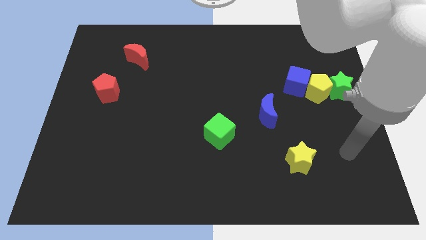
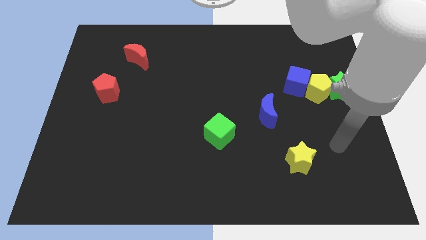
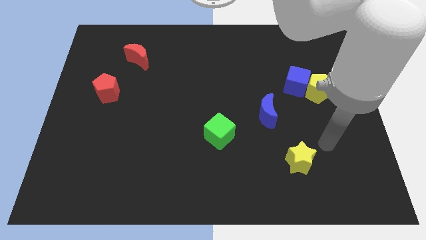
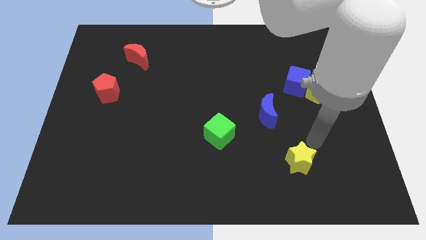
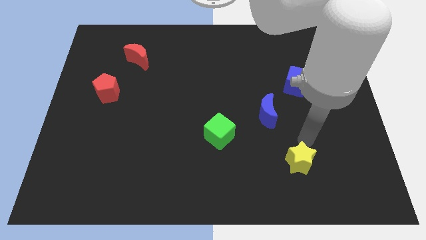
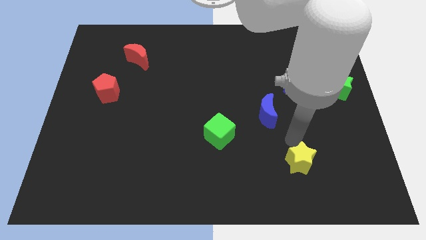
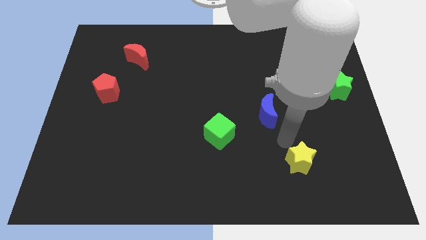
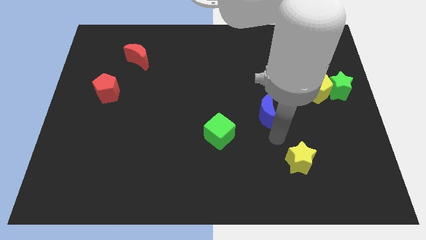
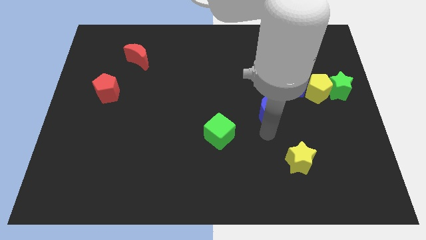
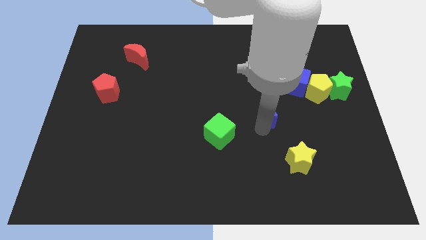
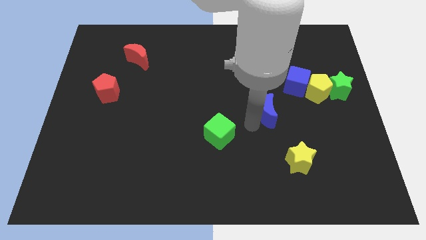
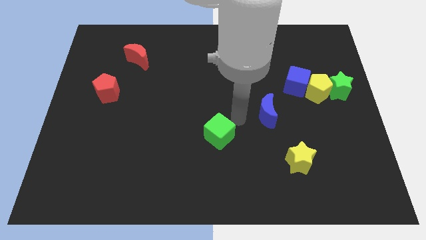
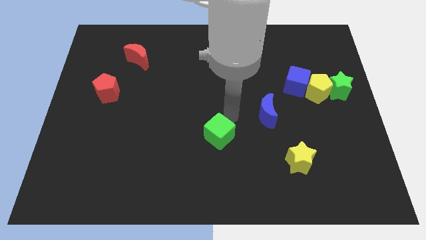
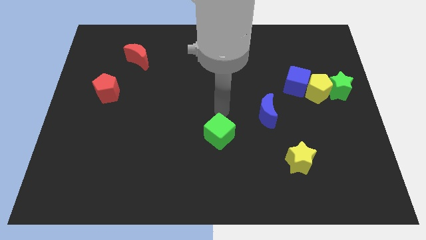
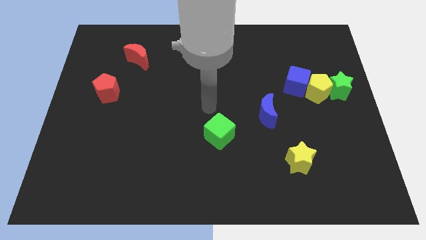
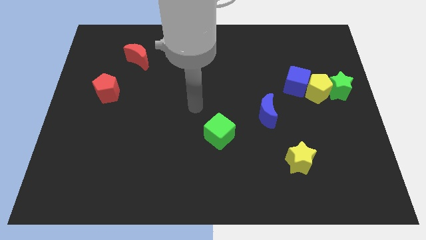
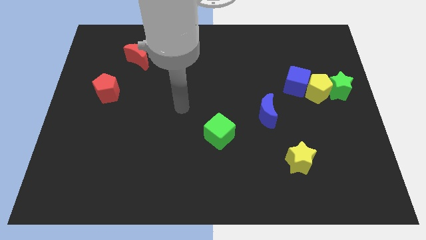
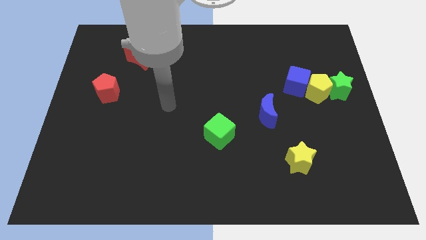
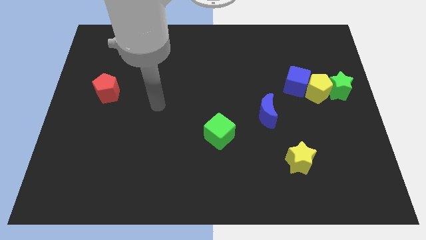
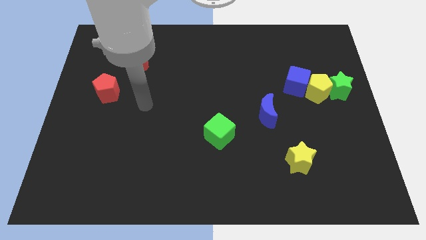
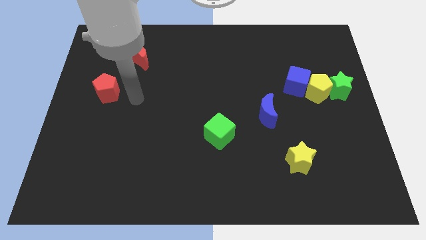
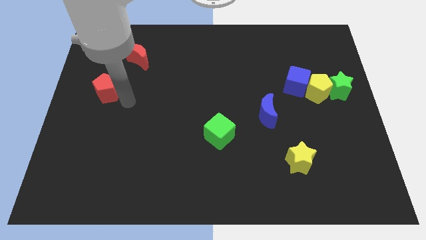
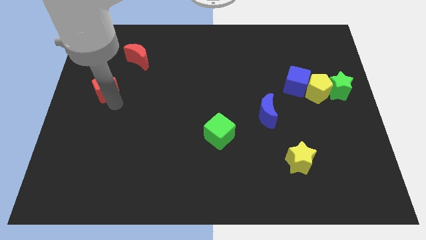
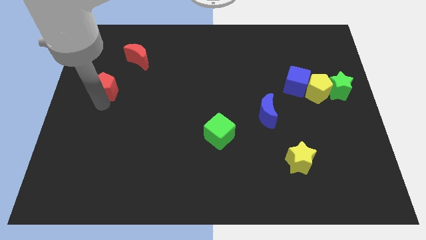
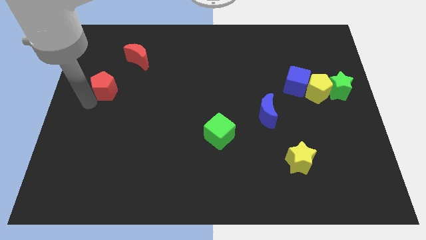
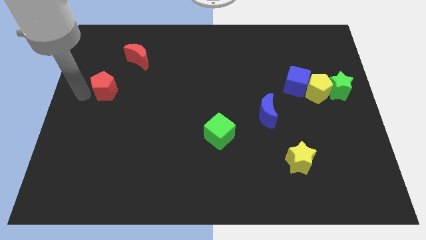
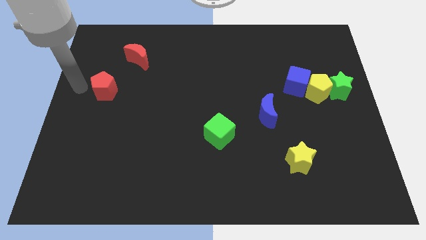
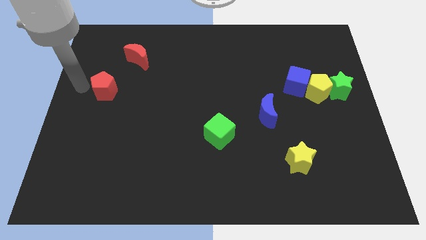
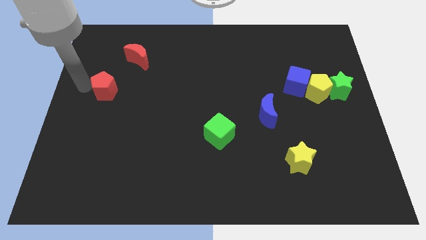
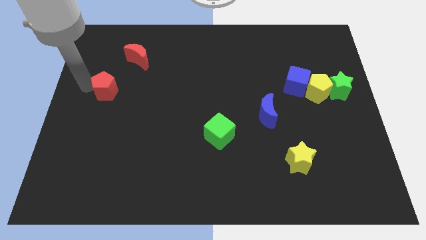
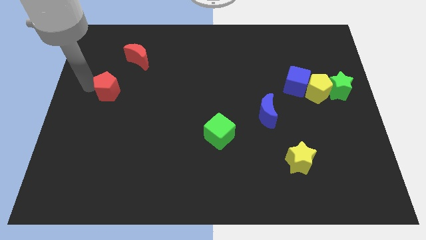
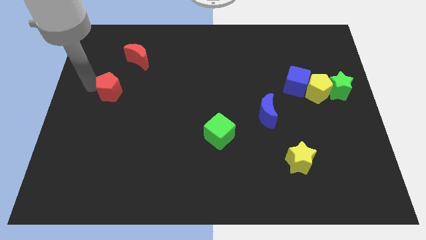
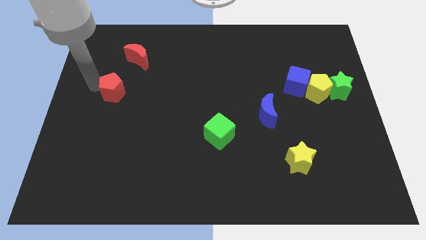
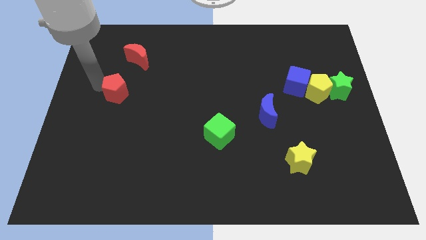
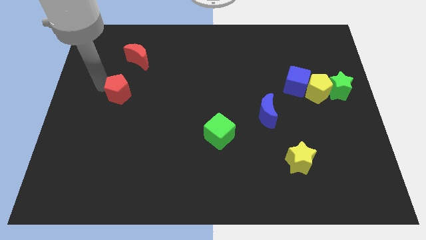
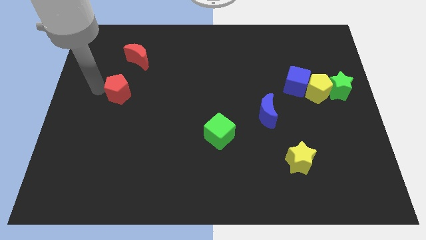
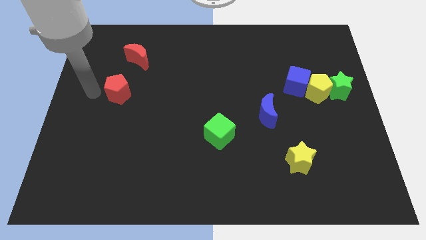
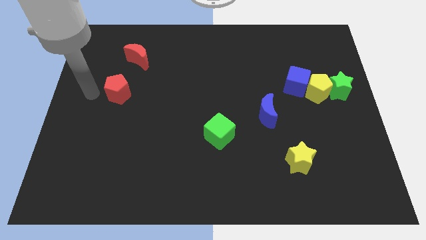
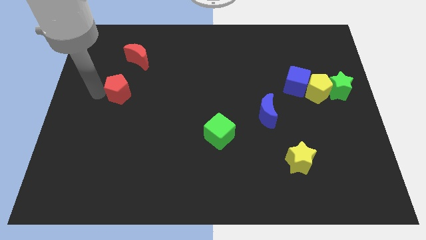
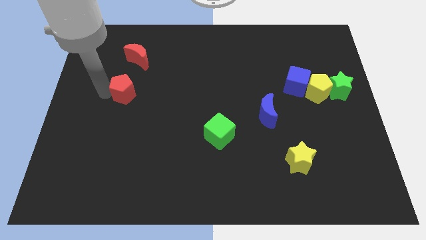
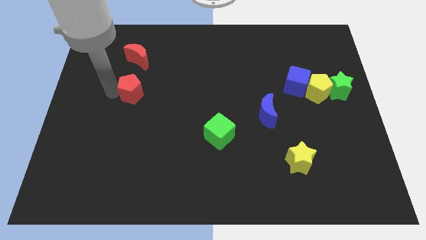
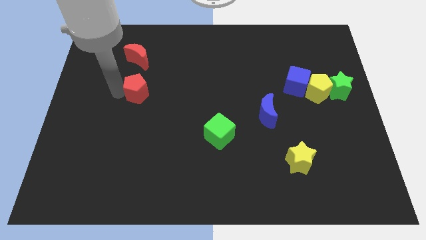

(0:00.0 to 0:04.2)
move the red pentagon to the right somewhat

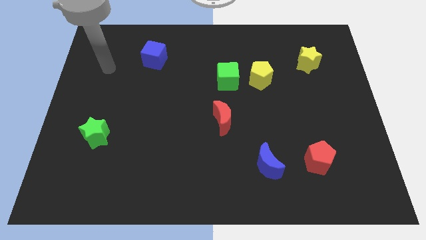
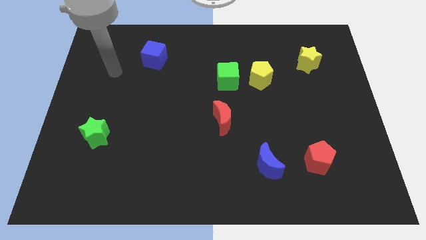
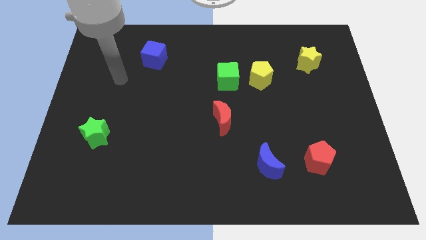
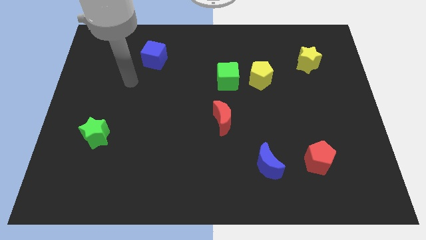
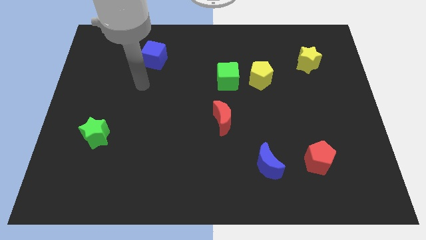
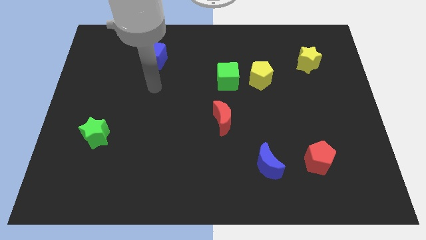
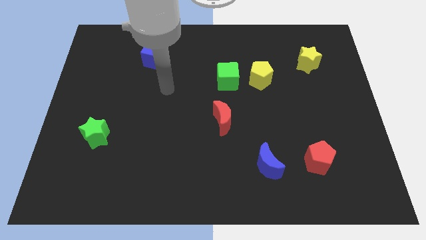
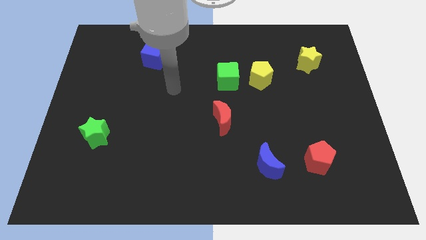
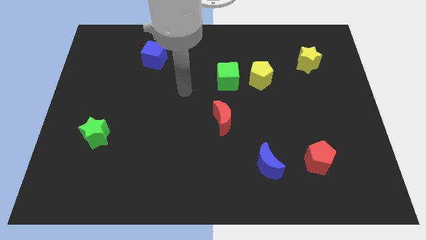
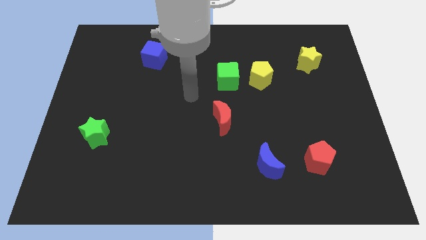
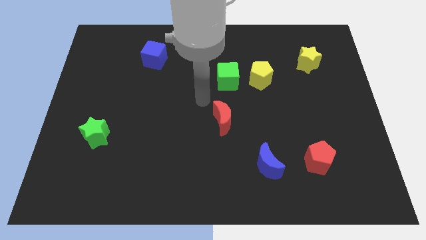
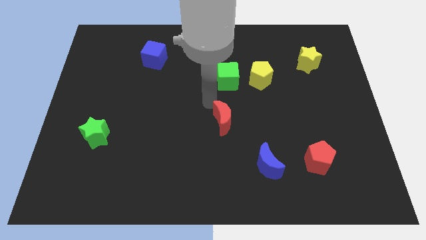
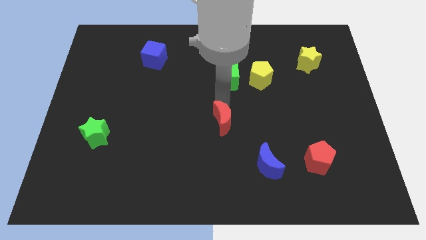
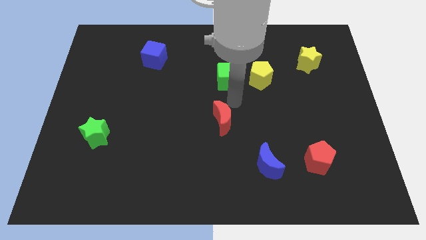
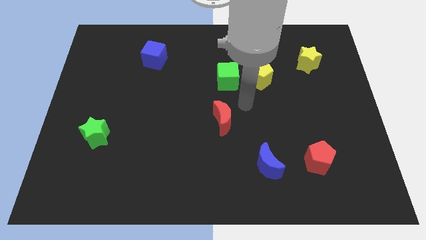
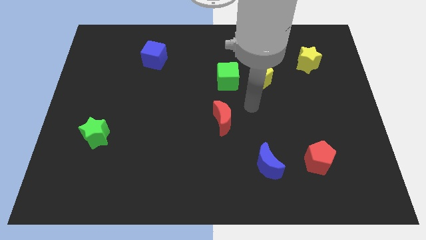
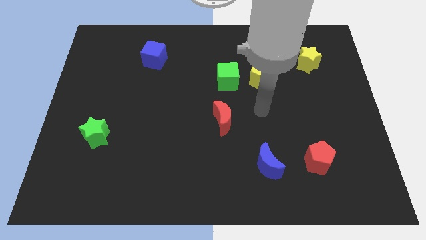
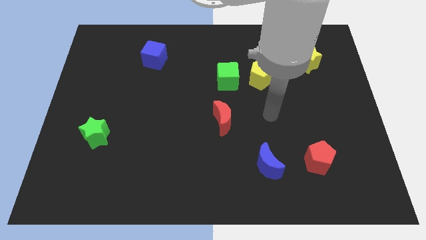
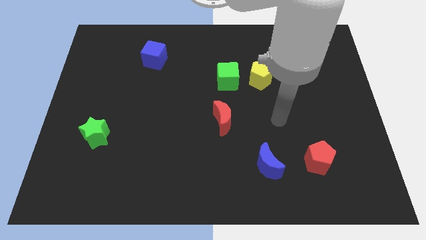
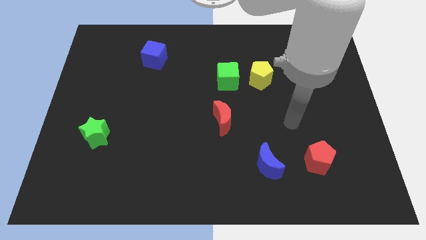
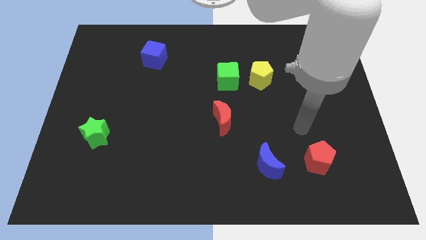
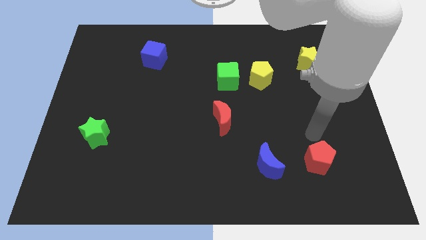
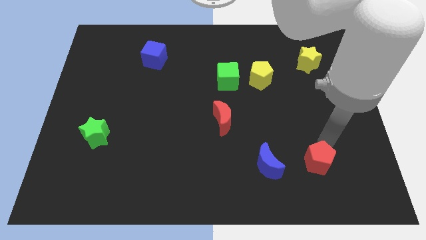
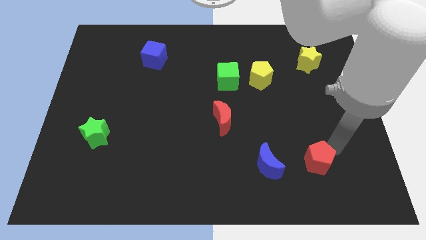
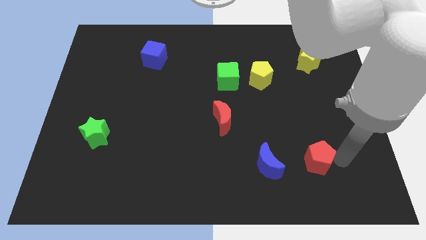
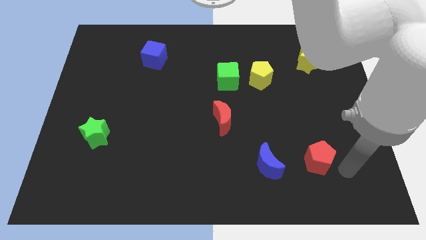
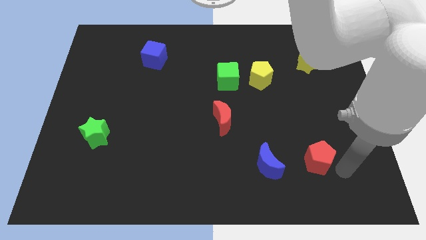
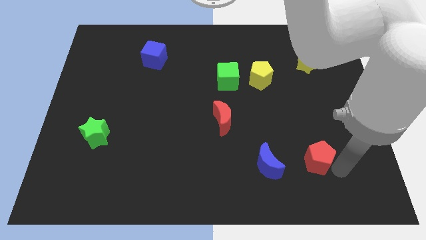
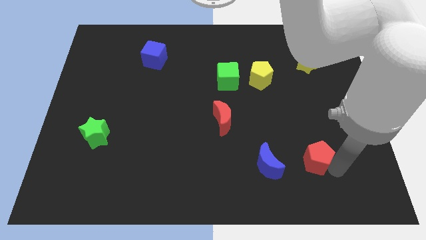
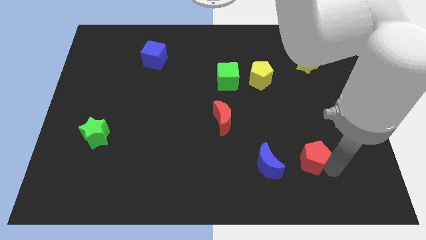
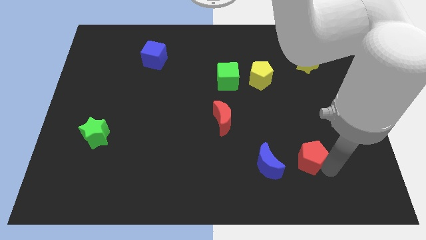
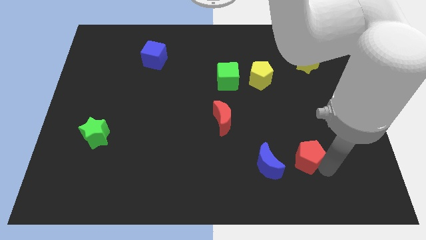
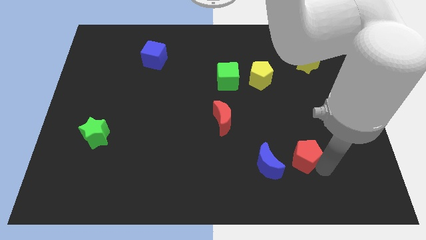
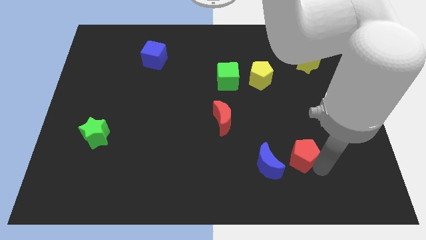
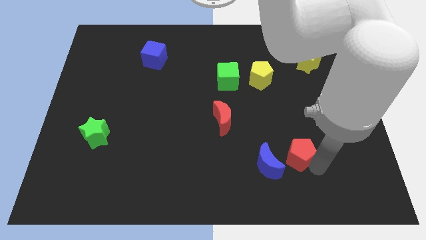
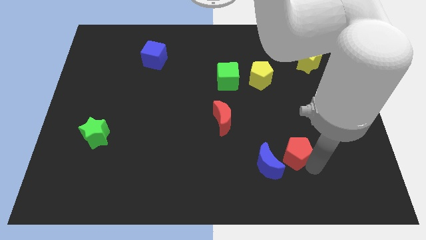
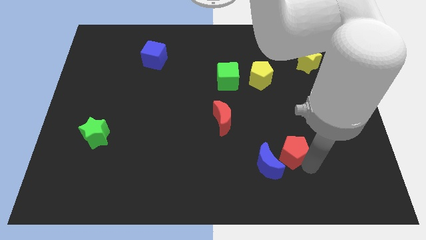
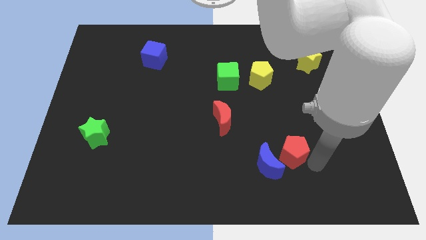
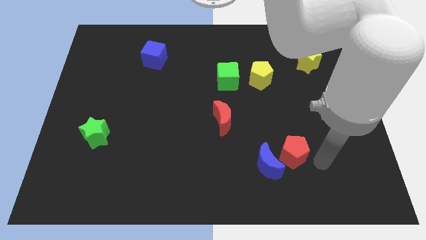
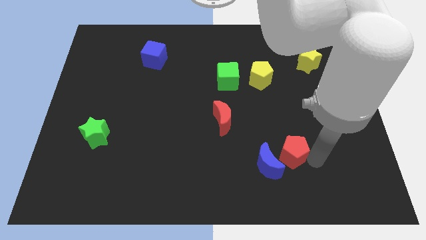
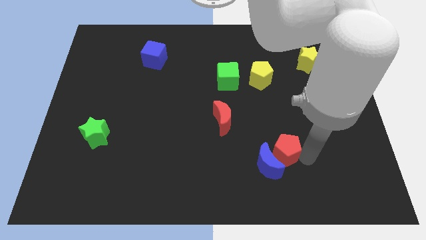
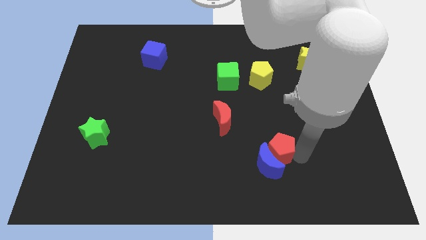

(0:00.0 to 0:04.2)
slide the red pentagon slightly left
